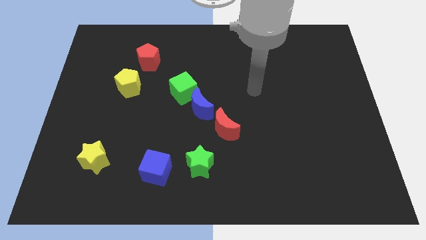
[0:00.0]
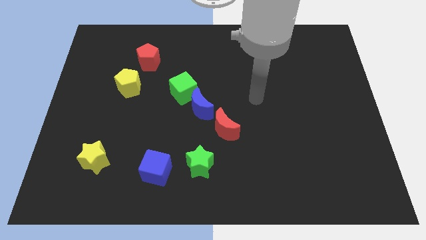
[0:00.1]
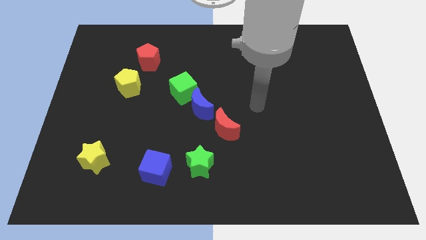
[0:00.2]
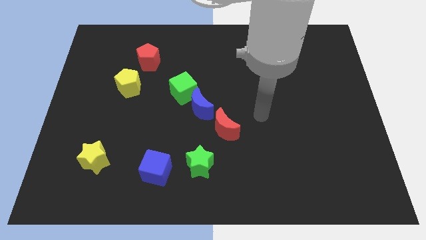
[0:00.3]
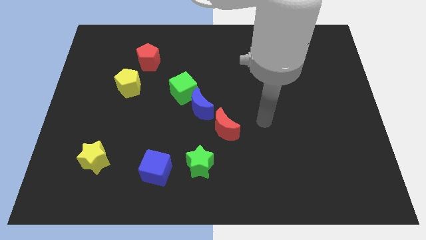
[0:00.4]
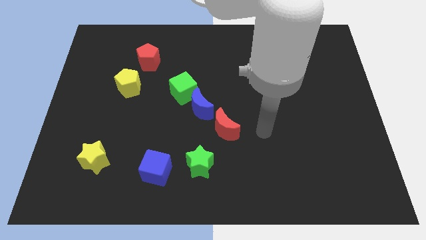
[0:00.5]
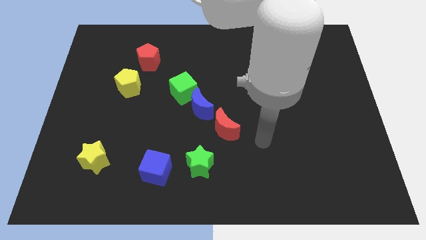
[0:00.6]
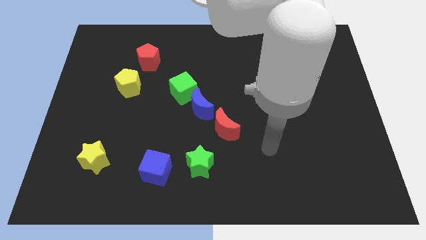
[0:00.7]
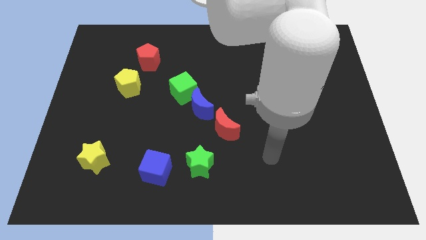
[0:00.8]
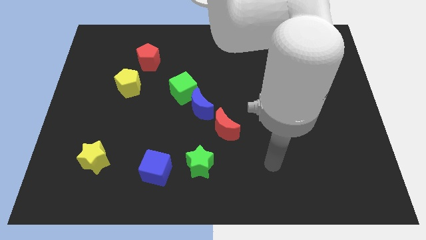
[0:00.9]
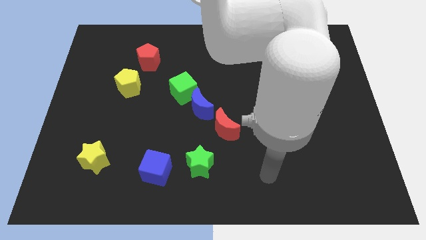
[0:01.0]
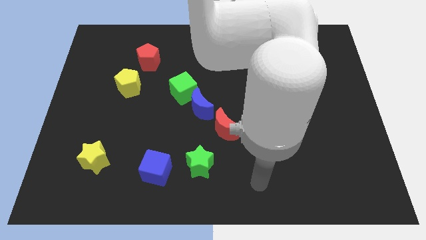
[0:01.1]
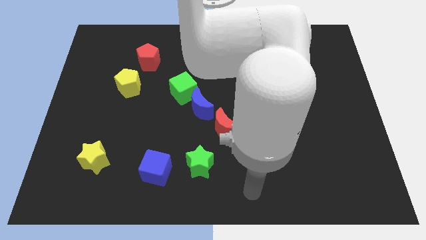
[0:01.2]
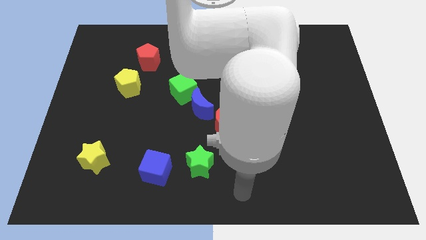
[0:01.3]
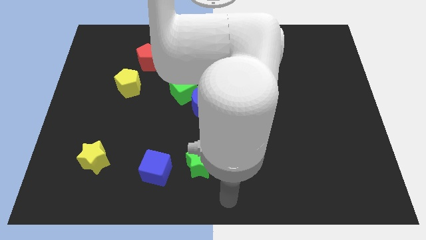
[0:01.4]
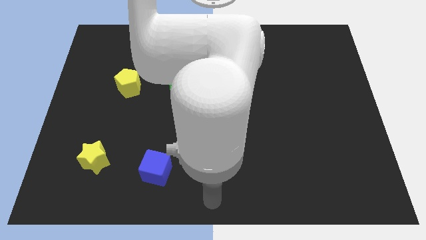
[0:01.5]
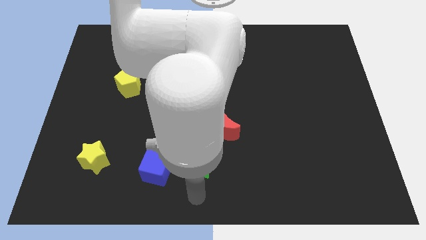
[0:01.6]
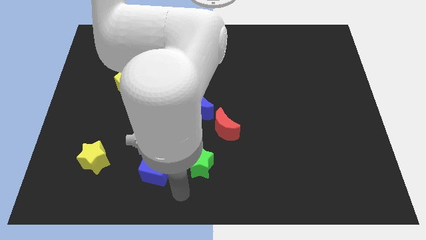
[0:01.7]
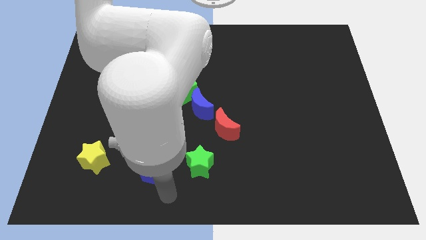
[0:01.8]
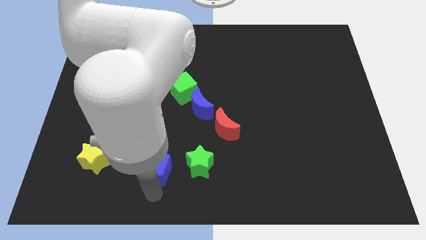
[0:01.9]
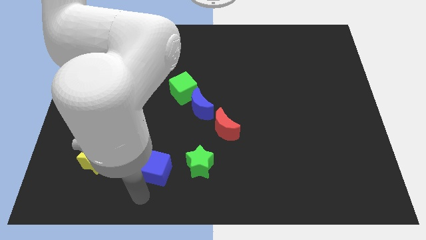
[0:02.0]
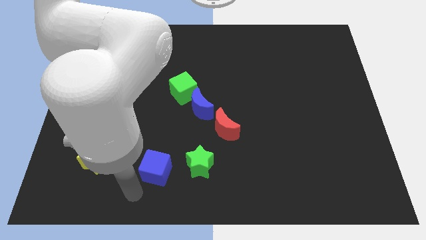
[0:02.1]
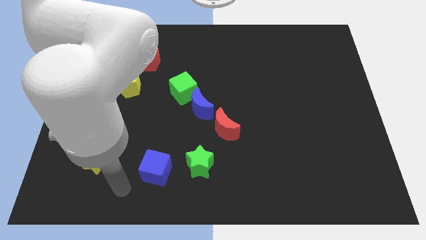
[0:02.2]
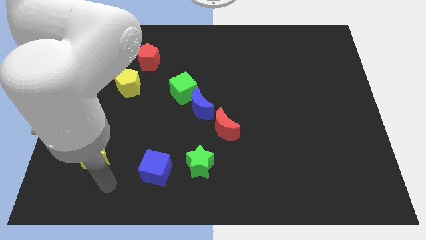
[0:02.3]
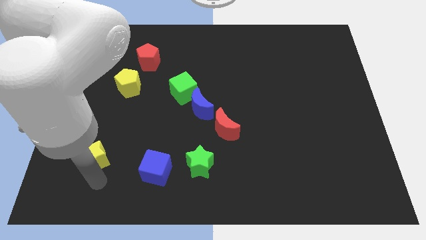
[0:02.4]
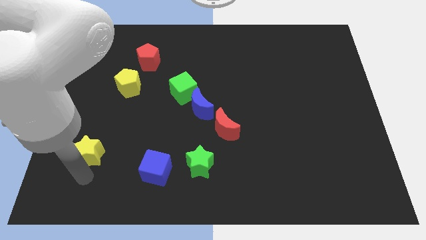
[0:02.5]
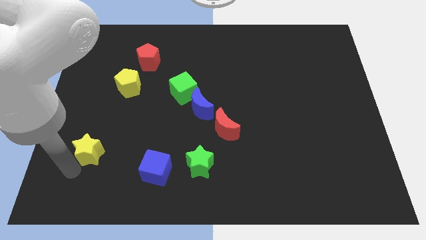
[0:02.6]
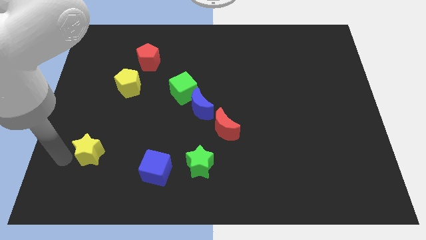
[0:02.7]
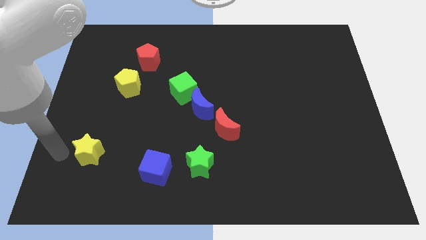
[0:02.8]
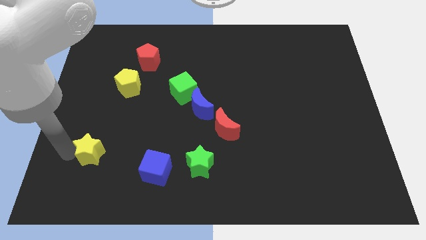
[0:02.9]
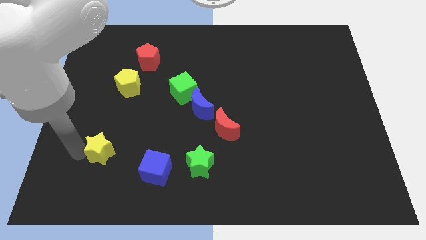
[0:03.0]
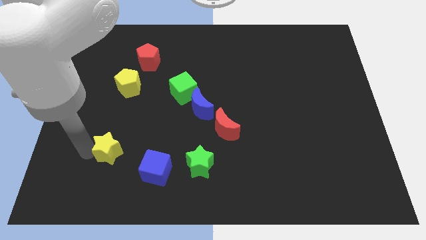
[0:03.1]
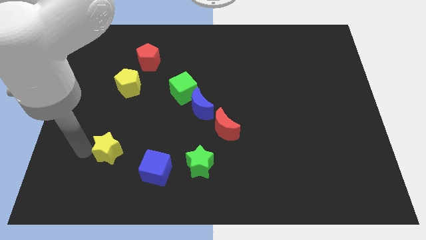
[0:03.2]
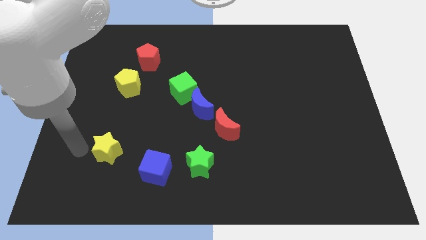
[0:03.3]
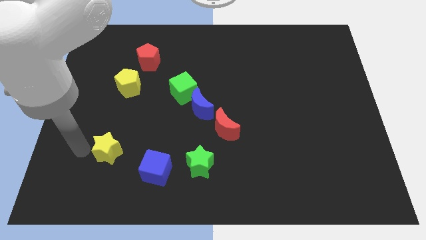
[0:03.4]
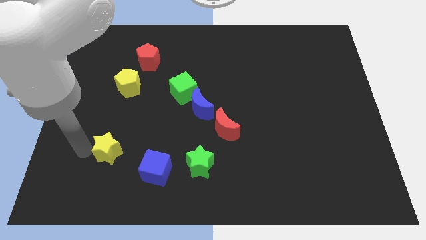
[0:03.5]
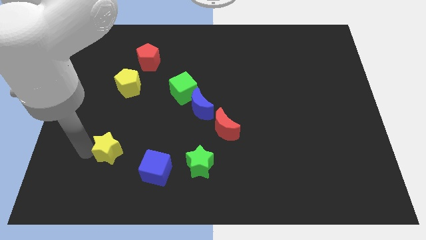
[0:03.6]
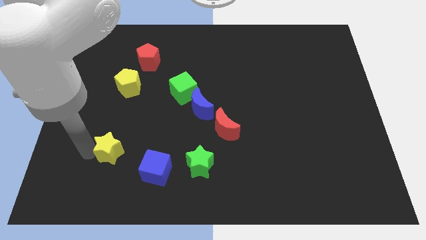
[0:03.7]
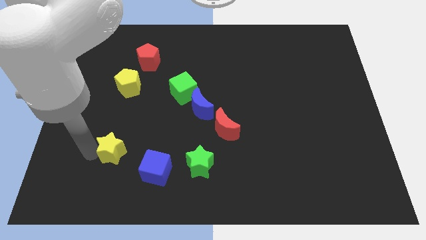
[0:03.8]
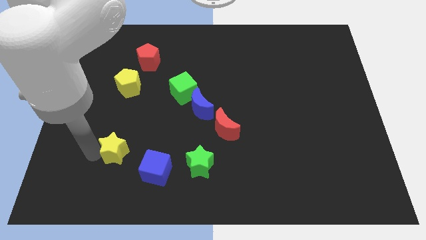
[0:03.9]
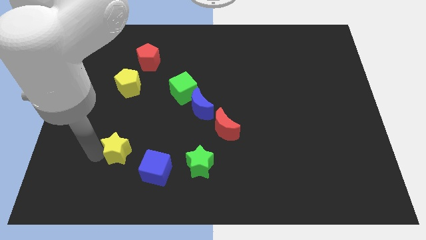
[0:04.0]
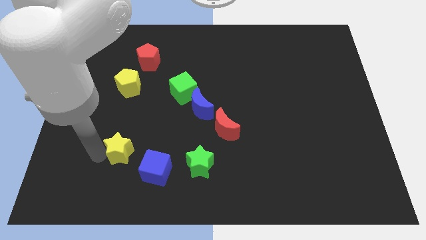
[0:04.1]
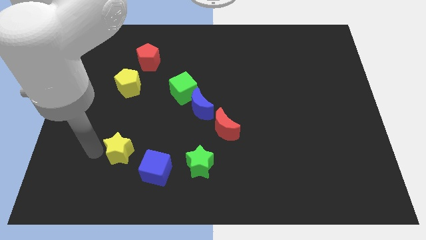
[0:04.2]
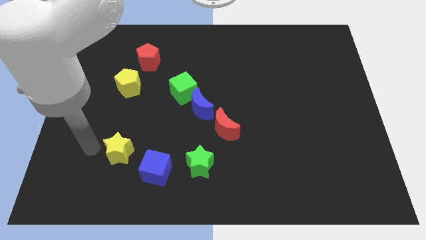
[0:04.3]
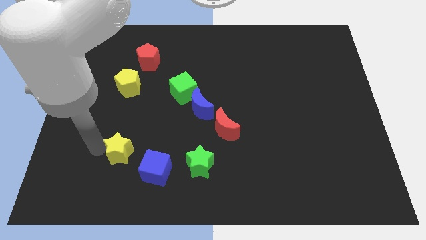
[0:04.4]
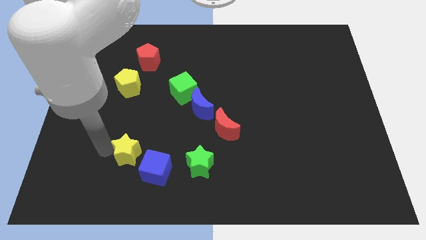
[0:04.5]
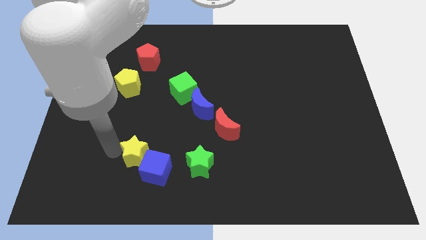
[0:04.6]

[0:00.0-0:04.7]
push the yellow star left of the green star

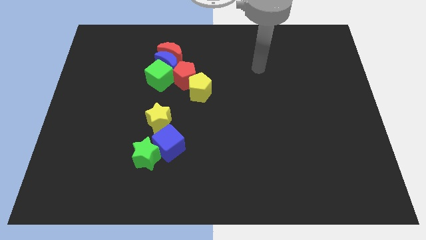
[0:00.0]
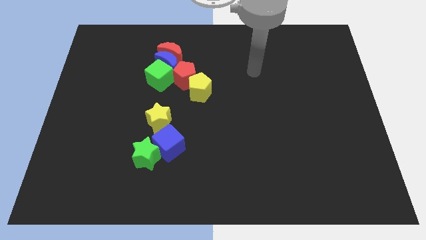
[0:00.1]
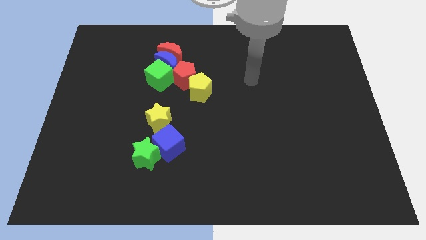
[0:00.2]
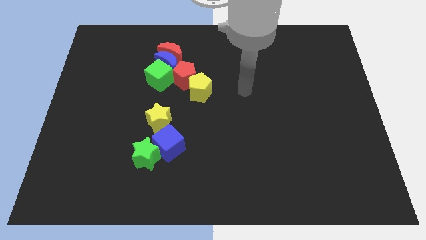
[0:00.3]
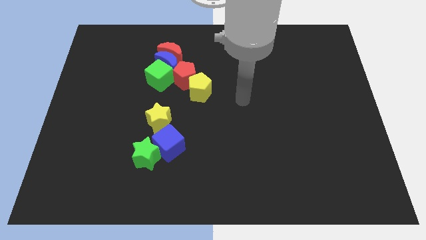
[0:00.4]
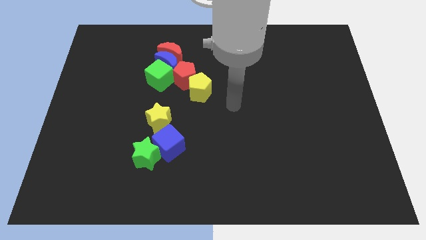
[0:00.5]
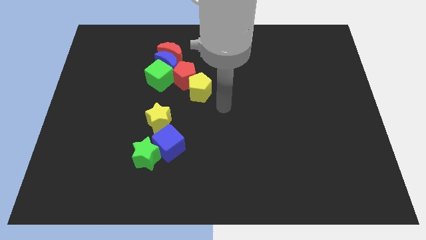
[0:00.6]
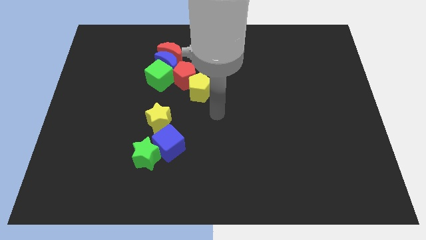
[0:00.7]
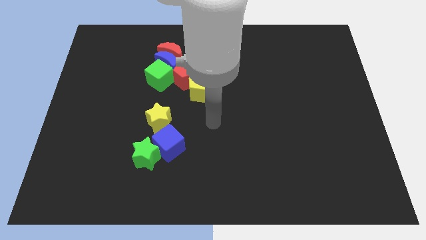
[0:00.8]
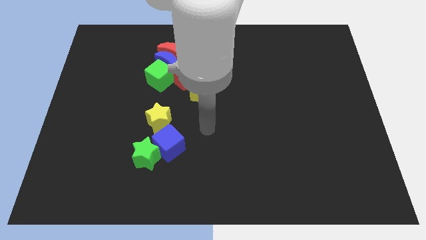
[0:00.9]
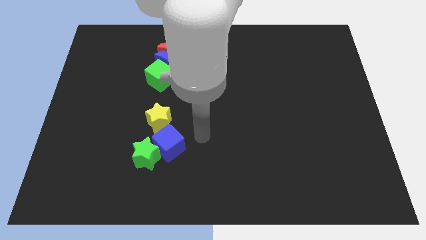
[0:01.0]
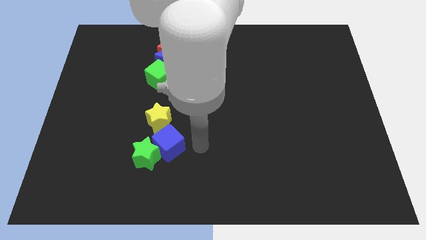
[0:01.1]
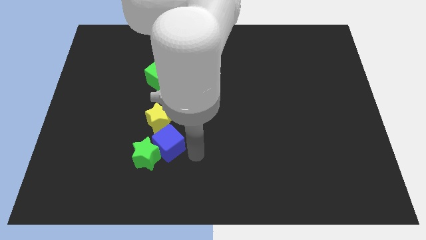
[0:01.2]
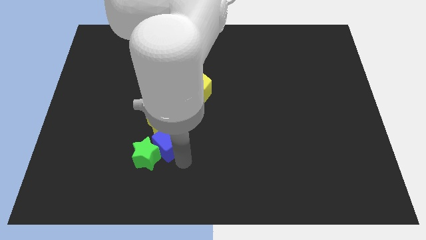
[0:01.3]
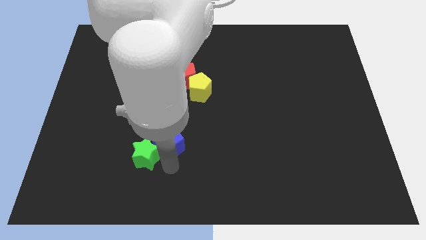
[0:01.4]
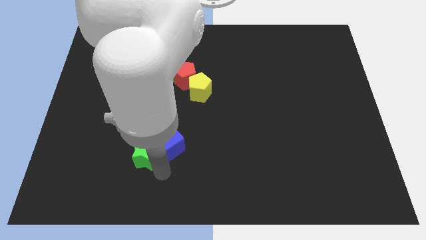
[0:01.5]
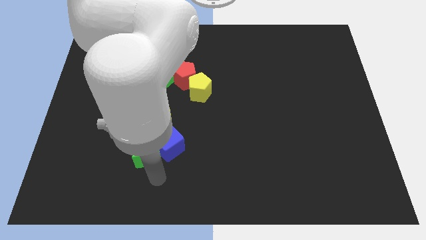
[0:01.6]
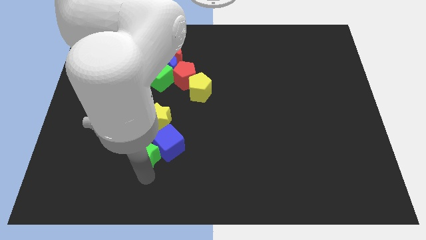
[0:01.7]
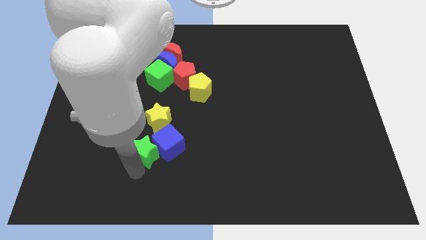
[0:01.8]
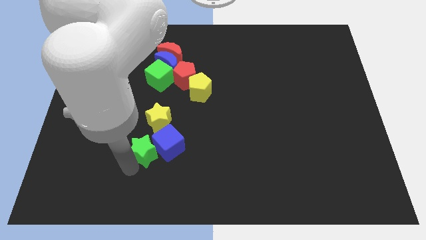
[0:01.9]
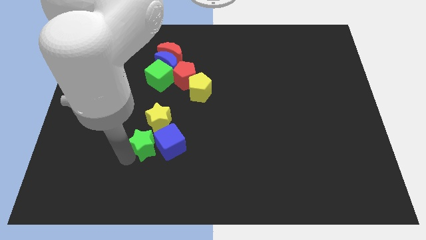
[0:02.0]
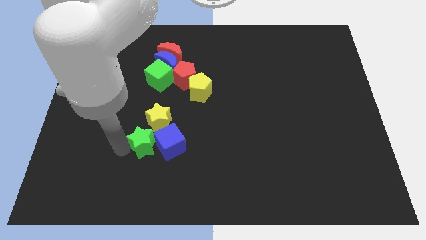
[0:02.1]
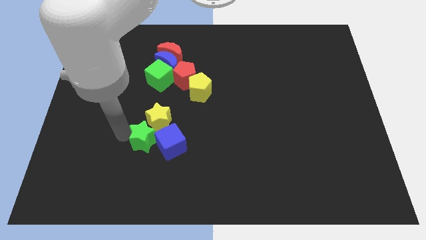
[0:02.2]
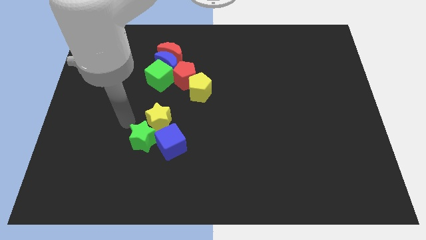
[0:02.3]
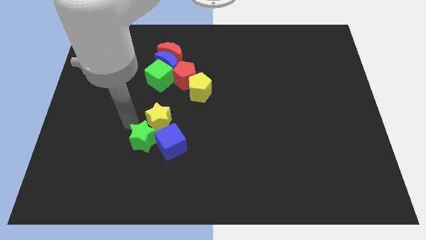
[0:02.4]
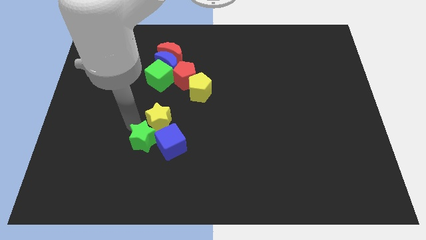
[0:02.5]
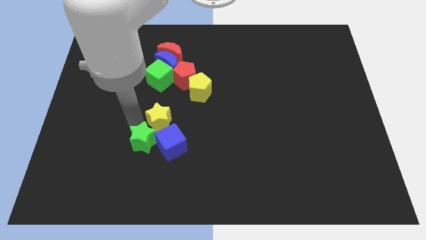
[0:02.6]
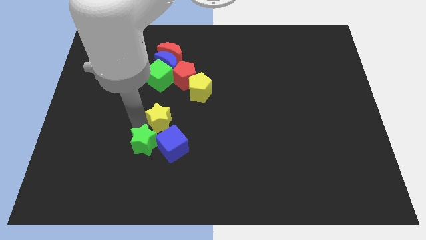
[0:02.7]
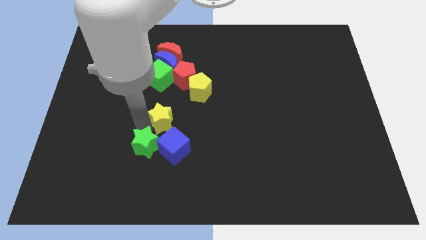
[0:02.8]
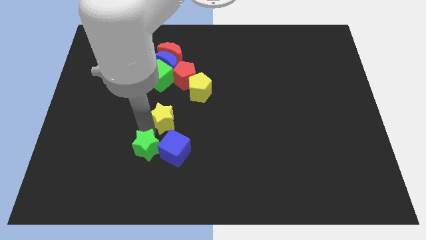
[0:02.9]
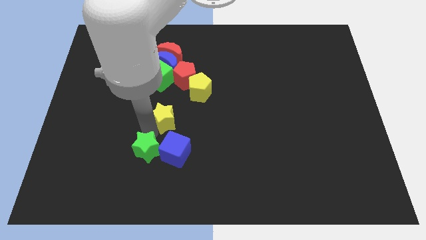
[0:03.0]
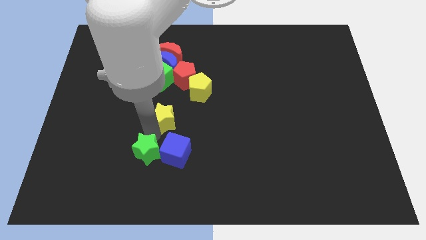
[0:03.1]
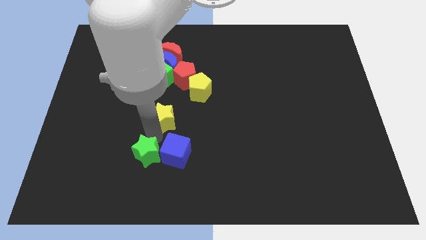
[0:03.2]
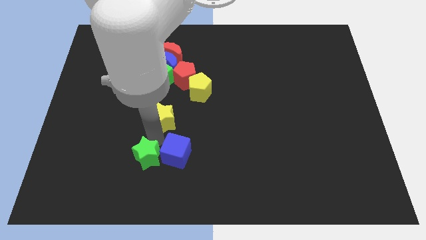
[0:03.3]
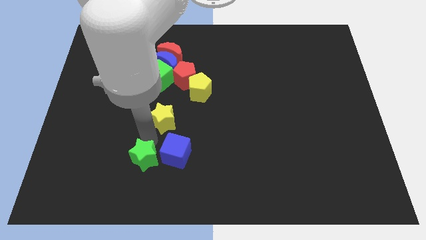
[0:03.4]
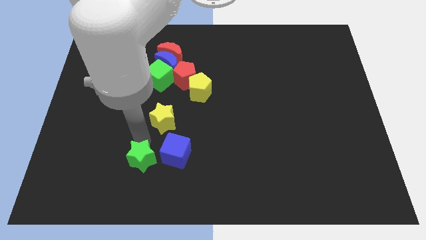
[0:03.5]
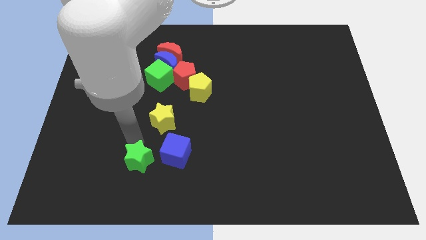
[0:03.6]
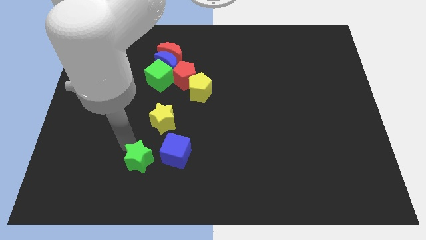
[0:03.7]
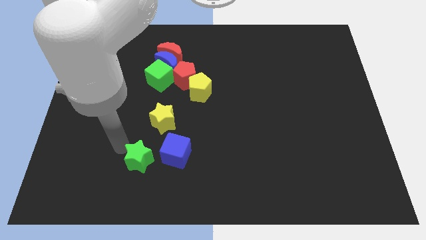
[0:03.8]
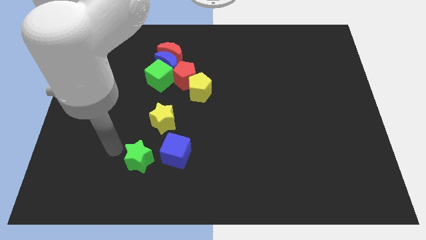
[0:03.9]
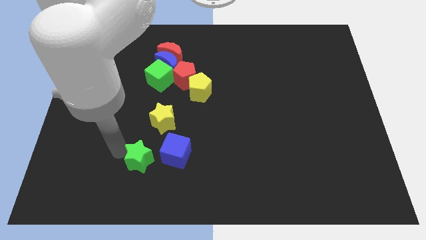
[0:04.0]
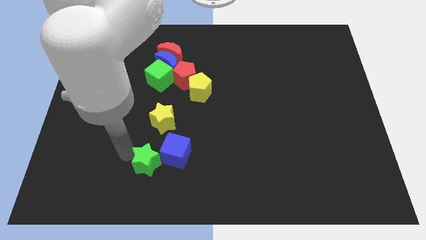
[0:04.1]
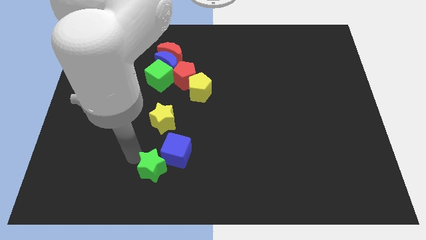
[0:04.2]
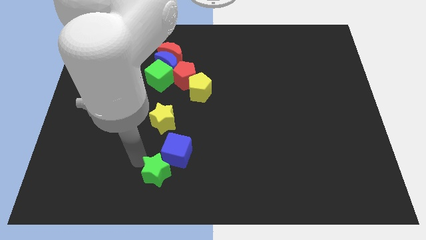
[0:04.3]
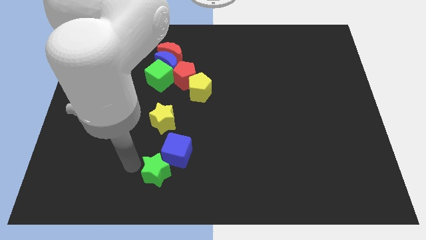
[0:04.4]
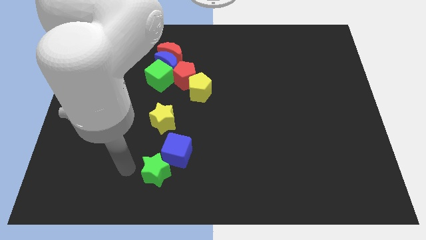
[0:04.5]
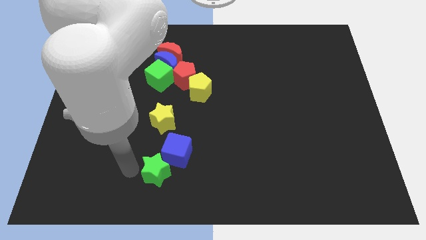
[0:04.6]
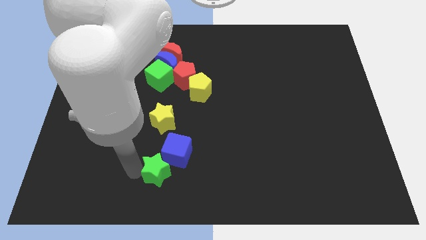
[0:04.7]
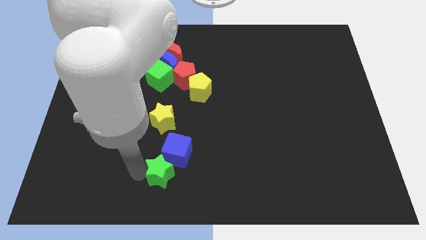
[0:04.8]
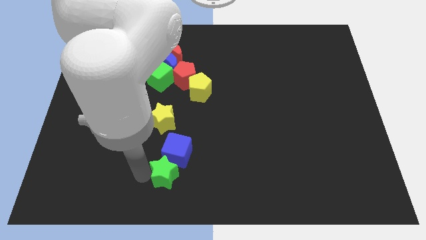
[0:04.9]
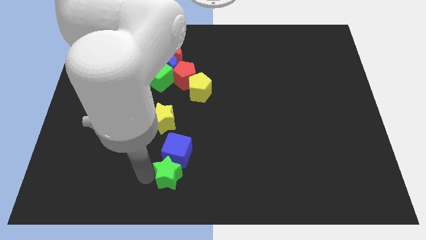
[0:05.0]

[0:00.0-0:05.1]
slide the green star diagonally down and to the right of the blue cube
